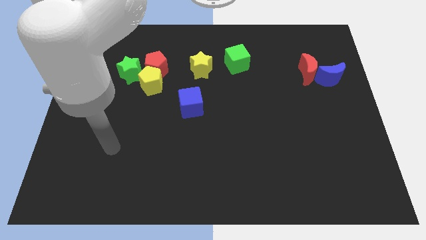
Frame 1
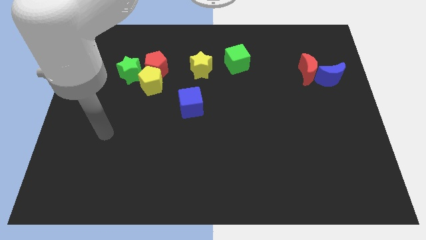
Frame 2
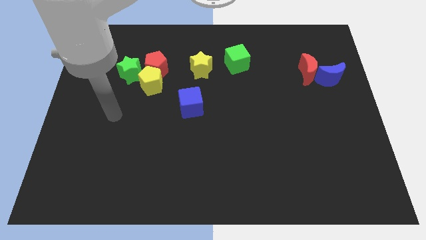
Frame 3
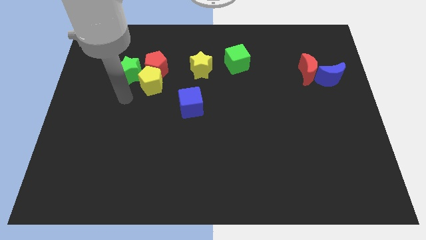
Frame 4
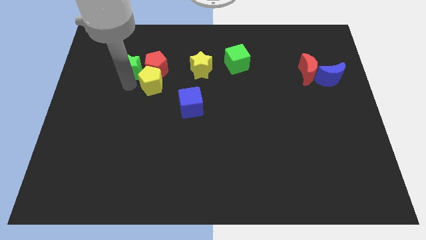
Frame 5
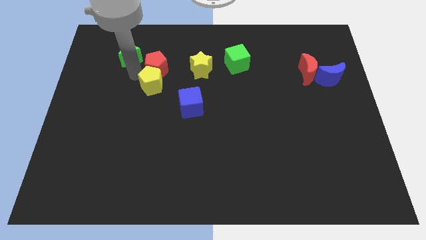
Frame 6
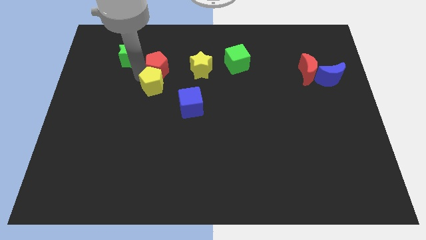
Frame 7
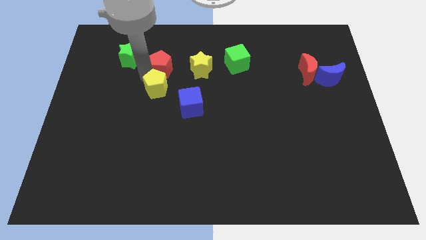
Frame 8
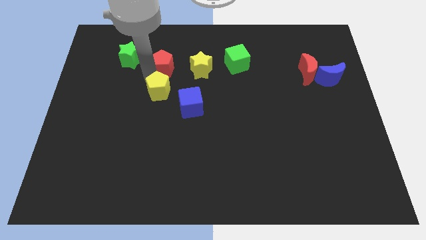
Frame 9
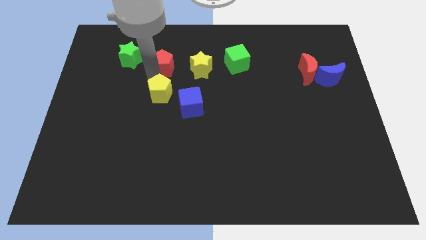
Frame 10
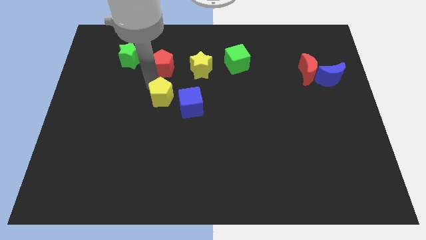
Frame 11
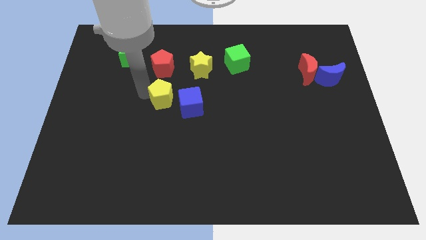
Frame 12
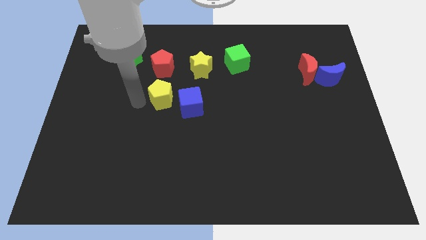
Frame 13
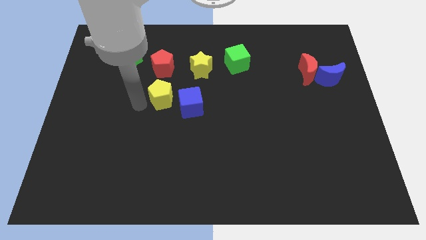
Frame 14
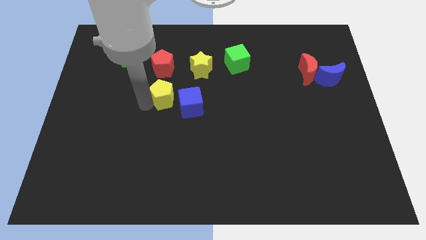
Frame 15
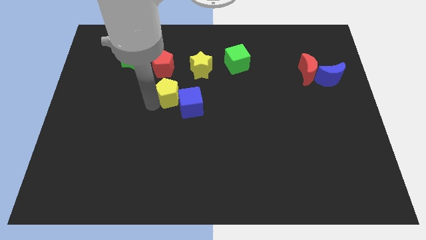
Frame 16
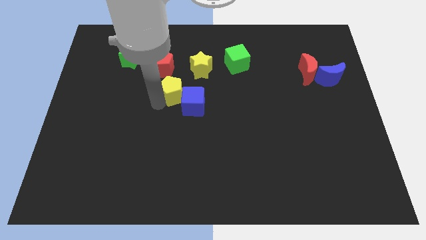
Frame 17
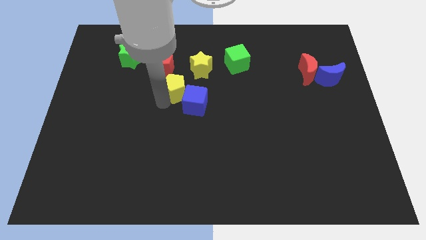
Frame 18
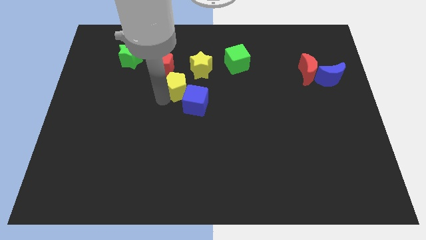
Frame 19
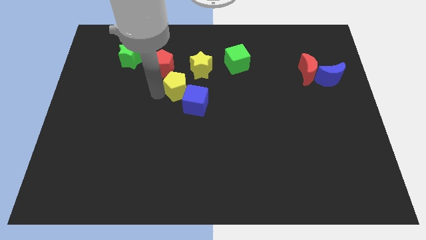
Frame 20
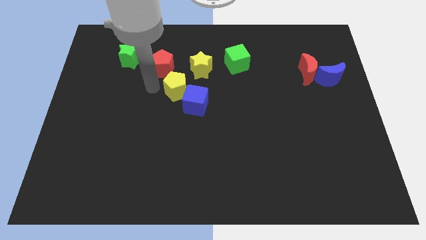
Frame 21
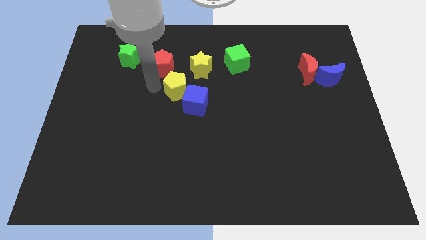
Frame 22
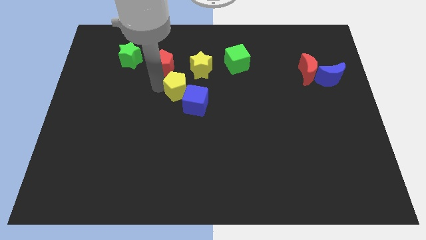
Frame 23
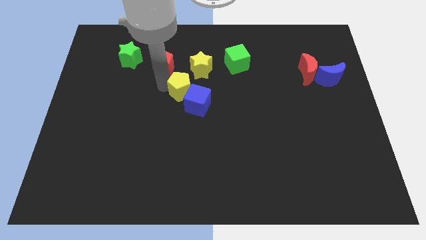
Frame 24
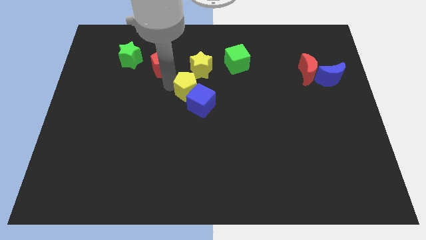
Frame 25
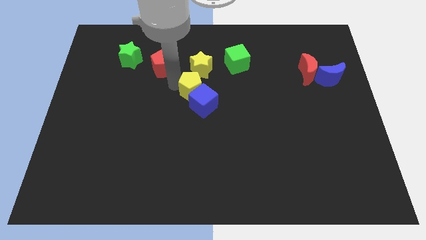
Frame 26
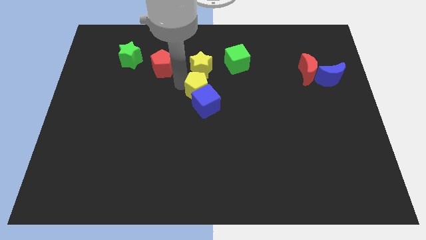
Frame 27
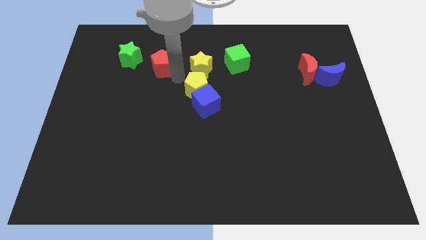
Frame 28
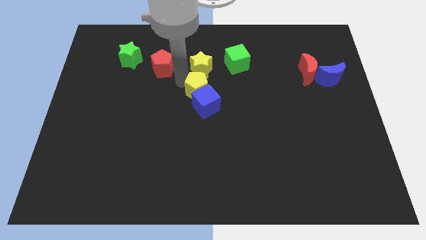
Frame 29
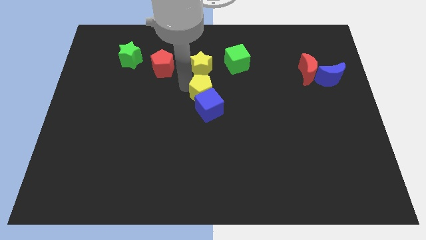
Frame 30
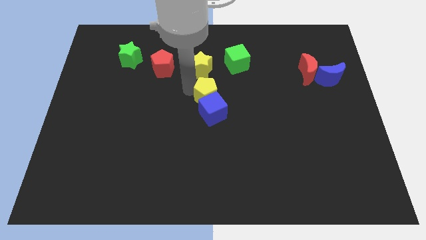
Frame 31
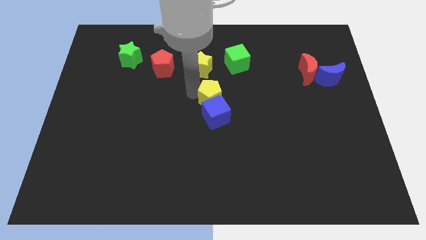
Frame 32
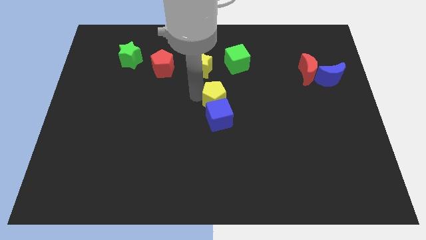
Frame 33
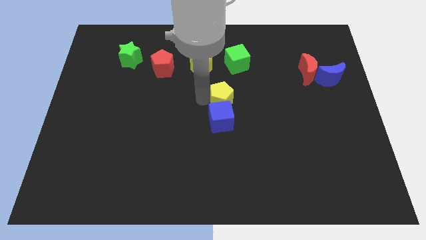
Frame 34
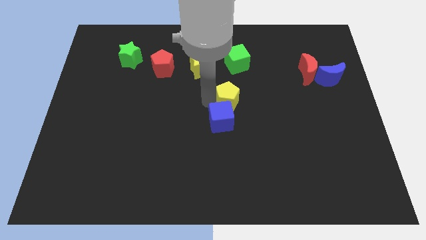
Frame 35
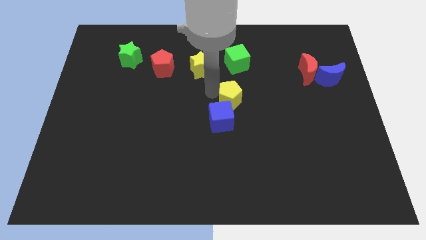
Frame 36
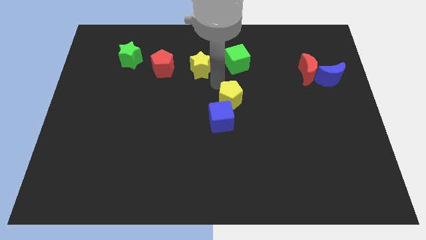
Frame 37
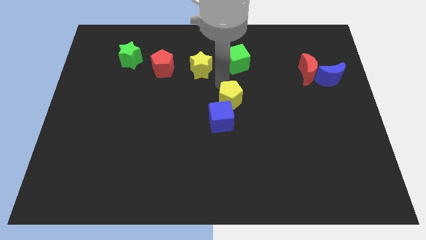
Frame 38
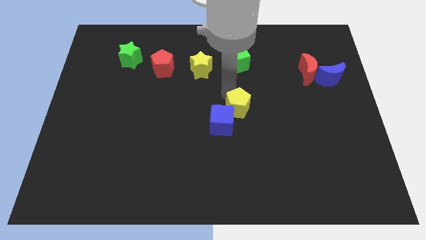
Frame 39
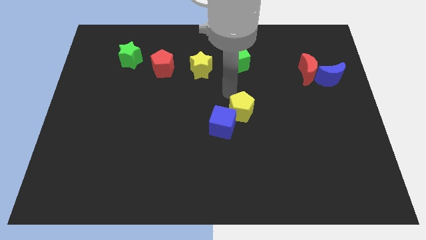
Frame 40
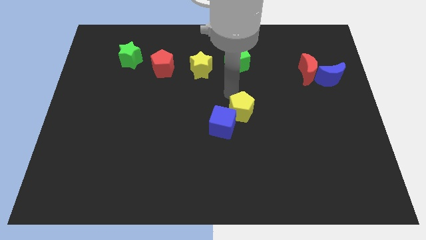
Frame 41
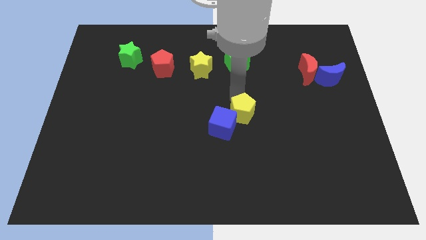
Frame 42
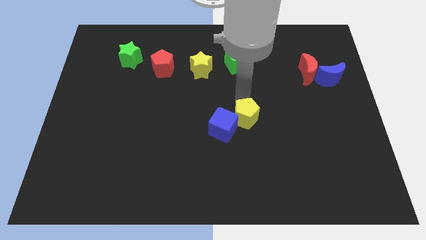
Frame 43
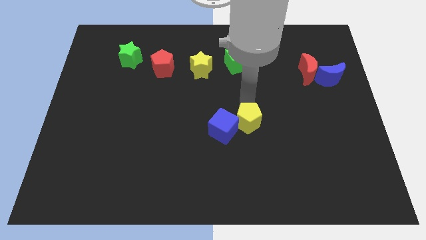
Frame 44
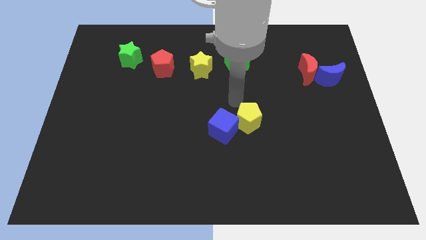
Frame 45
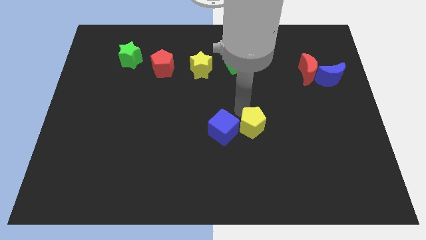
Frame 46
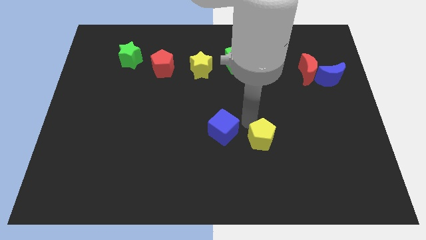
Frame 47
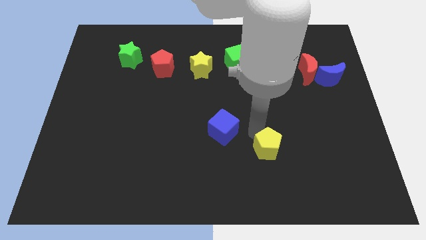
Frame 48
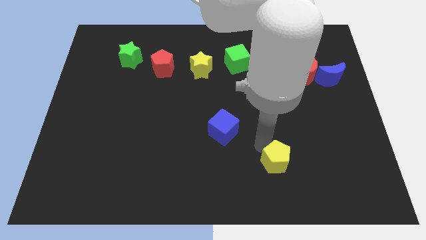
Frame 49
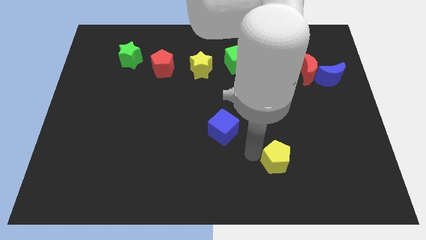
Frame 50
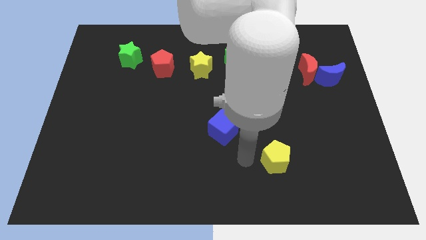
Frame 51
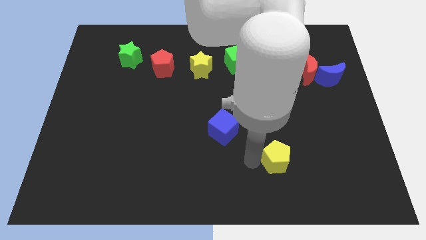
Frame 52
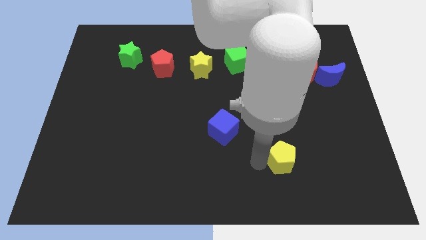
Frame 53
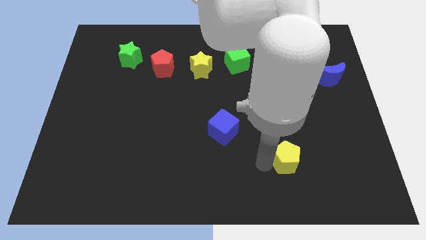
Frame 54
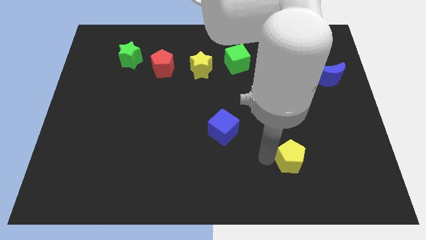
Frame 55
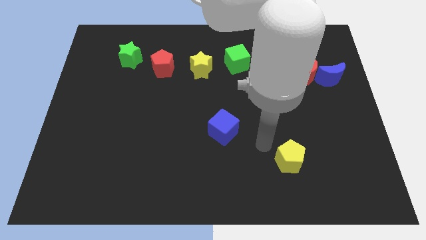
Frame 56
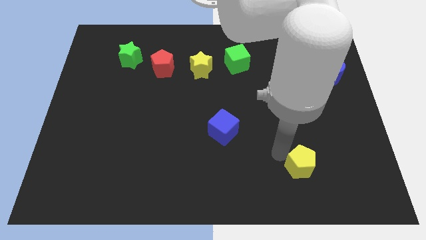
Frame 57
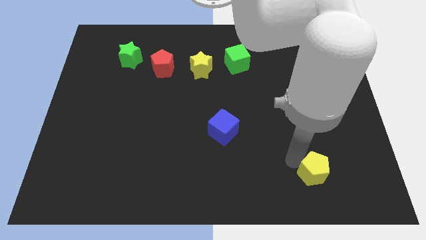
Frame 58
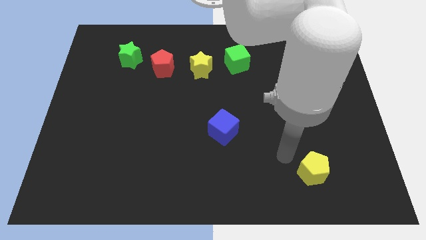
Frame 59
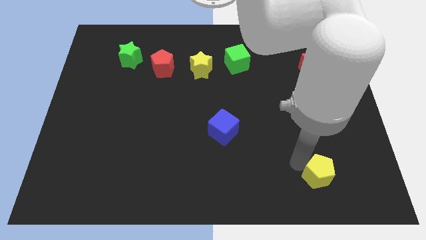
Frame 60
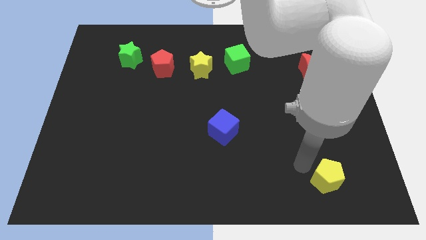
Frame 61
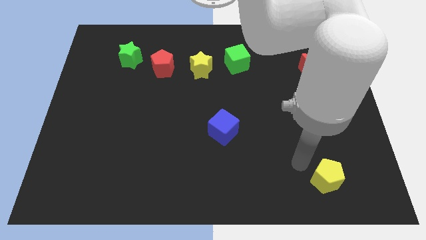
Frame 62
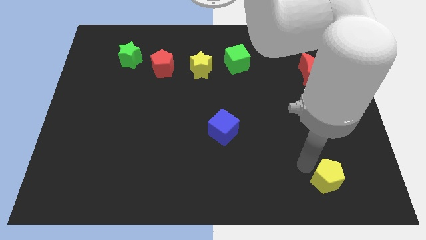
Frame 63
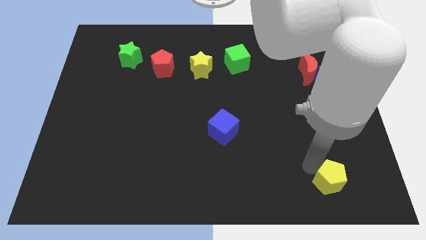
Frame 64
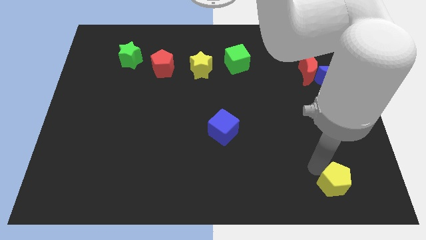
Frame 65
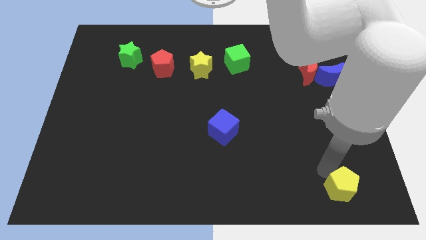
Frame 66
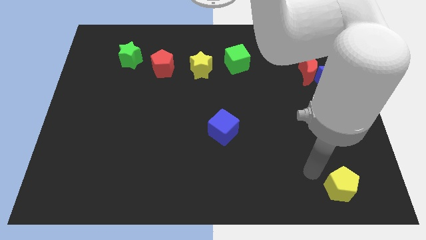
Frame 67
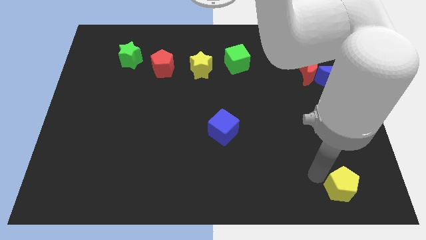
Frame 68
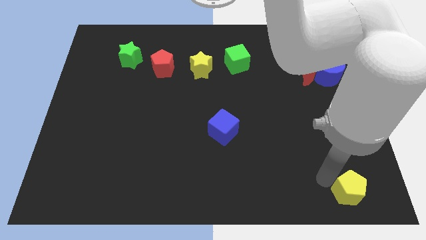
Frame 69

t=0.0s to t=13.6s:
push the yellow pentagon to the bottom right of the board

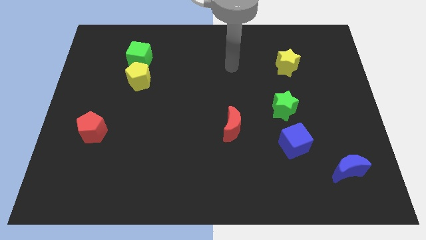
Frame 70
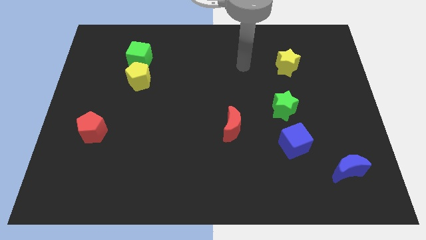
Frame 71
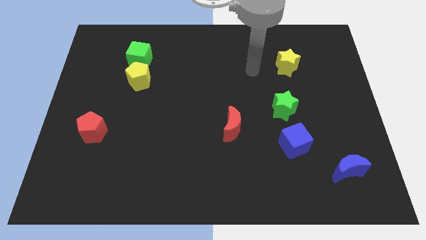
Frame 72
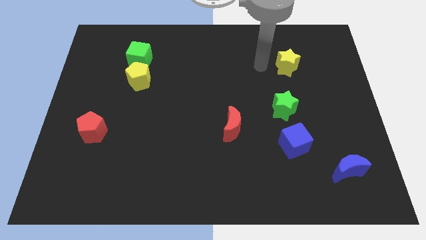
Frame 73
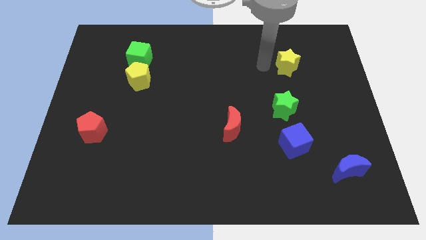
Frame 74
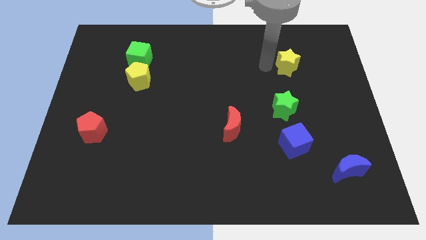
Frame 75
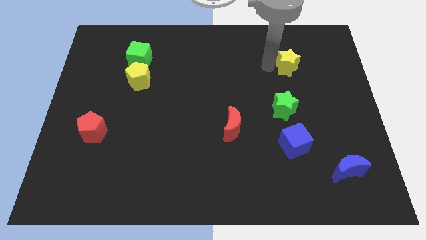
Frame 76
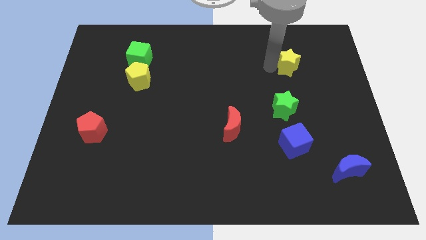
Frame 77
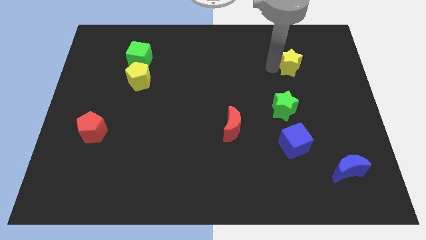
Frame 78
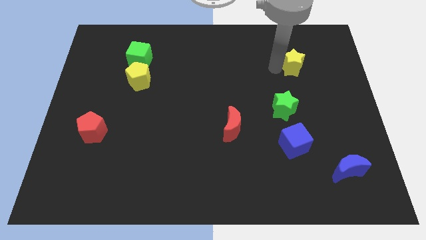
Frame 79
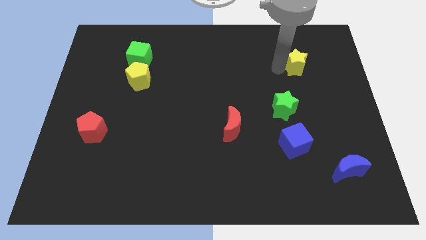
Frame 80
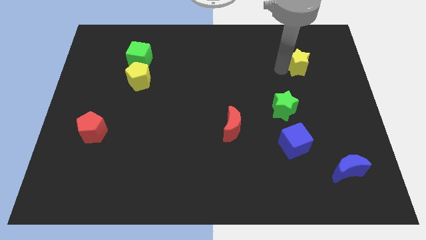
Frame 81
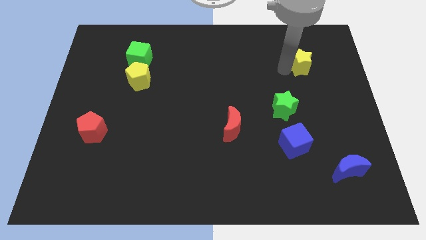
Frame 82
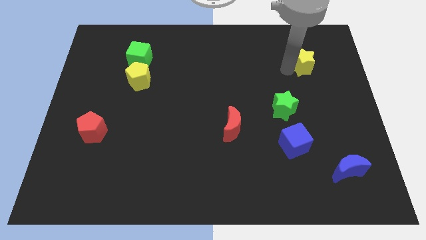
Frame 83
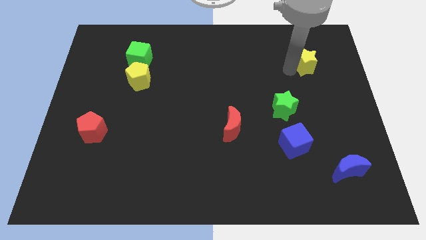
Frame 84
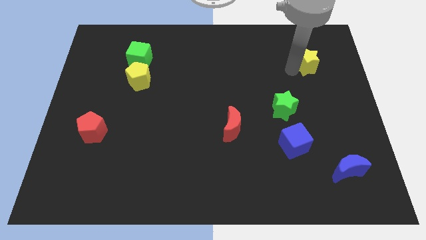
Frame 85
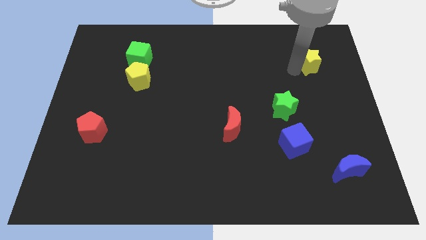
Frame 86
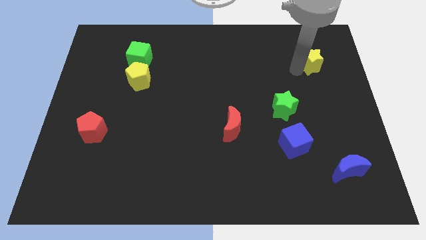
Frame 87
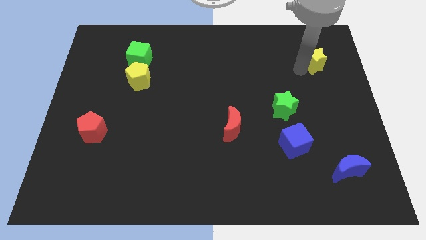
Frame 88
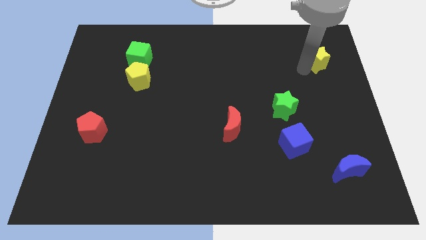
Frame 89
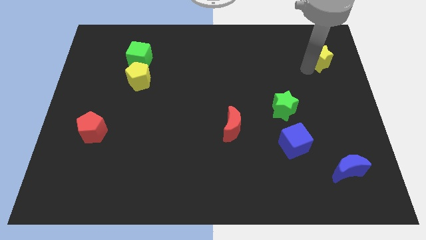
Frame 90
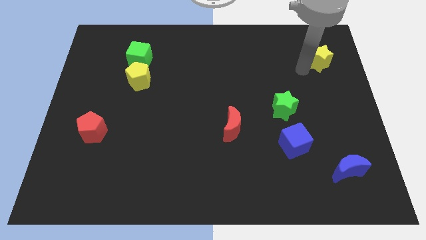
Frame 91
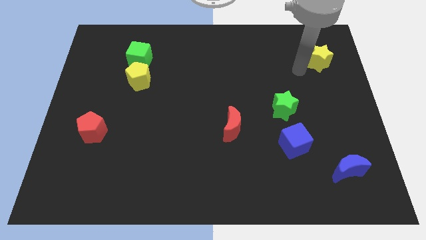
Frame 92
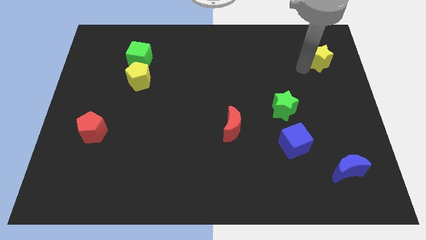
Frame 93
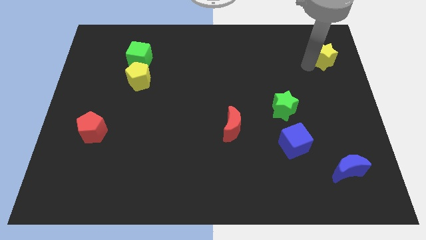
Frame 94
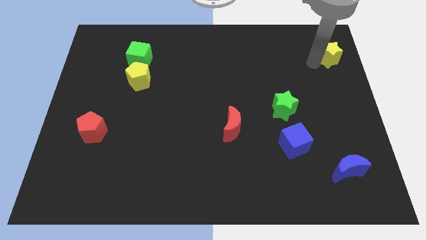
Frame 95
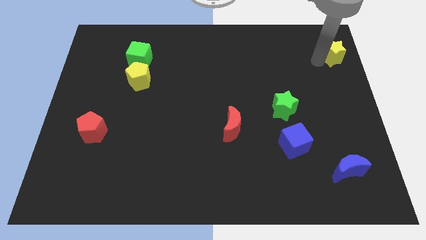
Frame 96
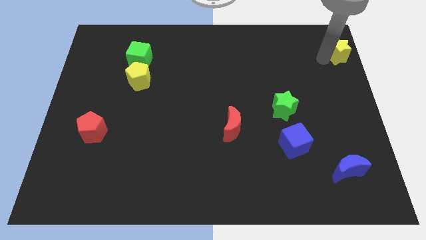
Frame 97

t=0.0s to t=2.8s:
push the yellow star to the top right of the board
